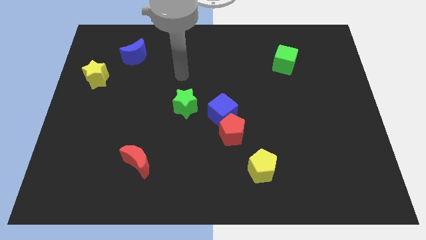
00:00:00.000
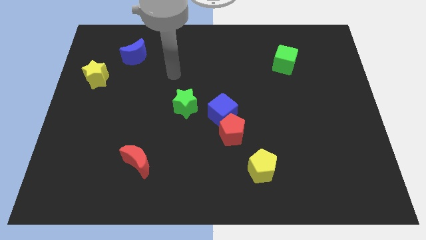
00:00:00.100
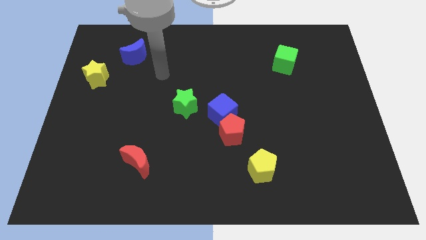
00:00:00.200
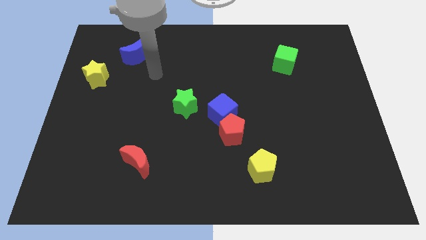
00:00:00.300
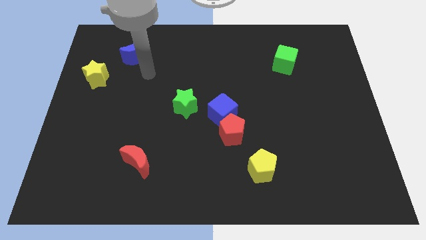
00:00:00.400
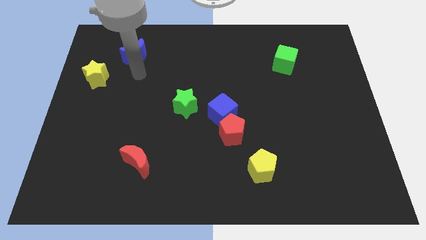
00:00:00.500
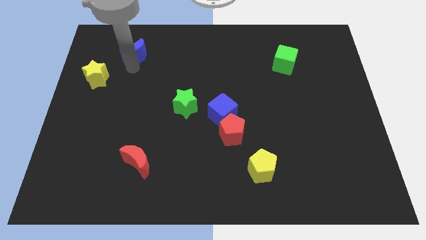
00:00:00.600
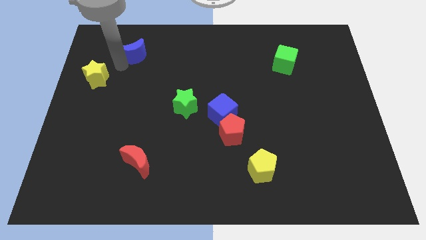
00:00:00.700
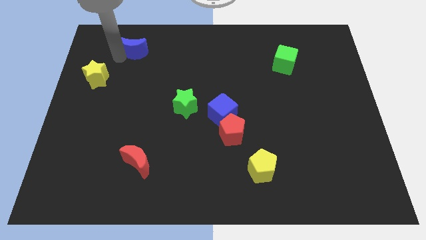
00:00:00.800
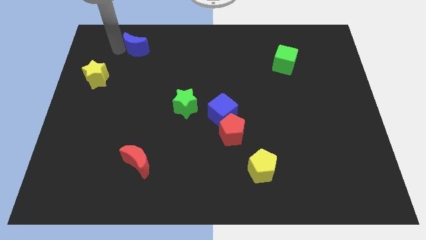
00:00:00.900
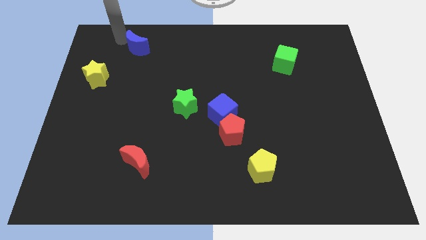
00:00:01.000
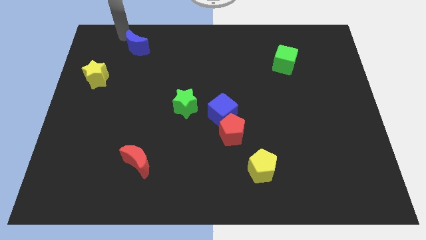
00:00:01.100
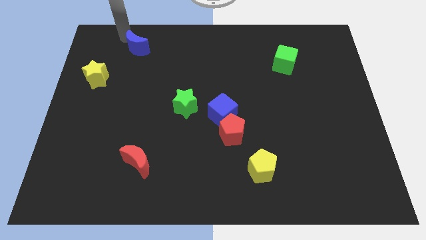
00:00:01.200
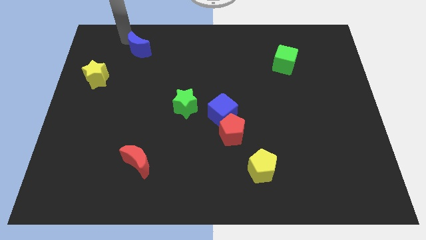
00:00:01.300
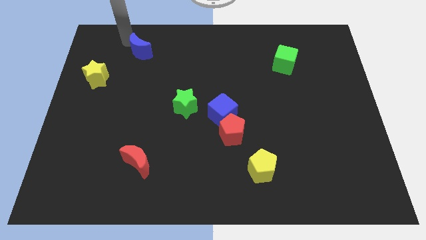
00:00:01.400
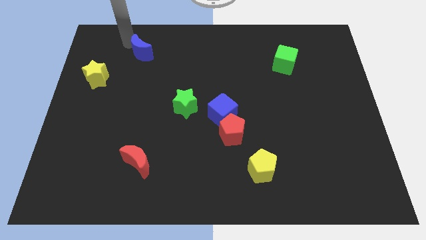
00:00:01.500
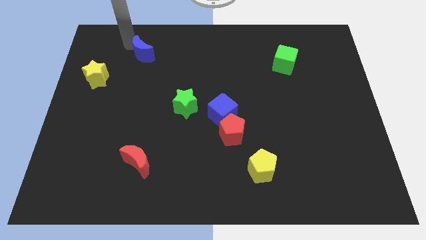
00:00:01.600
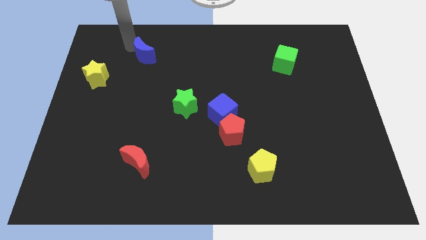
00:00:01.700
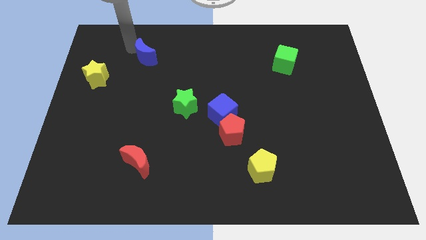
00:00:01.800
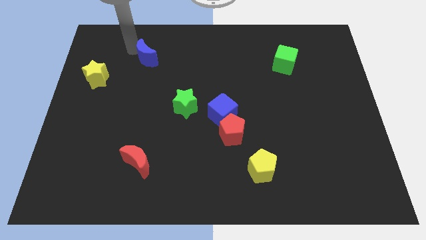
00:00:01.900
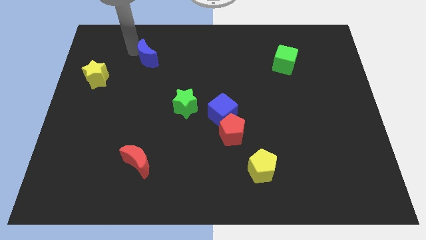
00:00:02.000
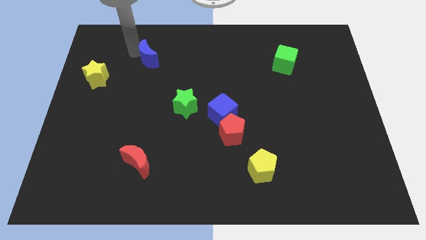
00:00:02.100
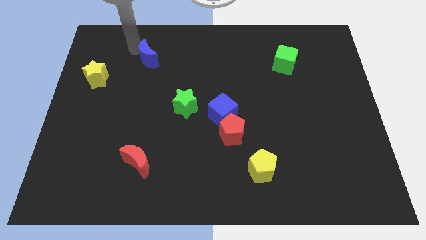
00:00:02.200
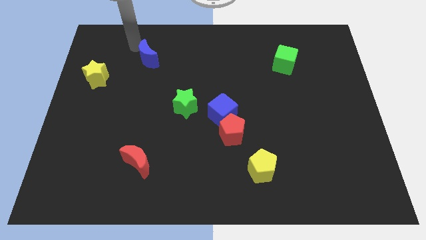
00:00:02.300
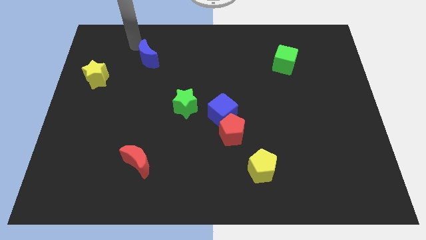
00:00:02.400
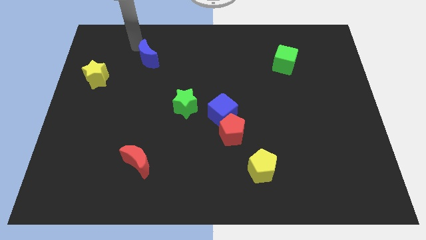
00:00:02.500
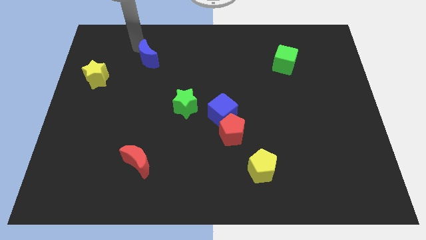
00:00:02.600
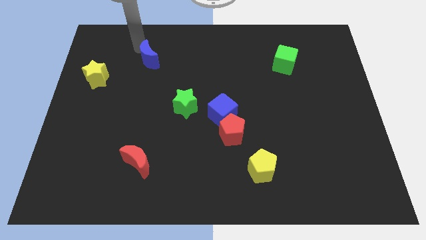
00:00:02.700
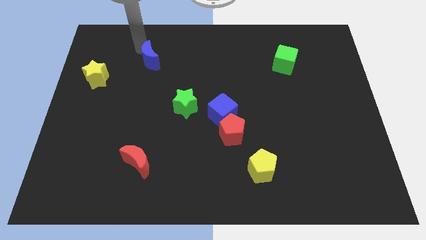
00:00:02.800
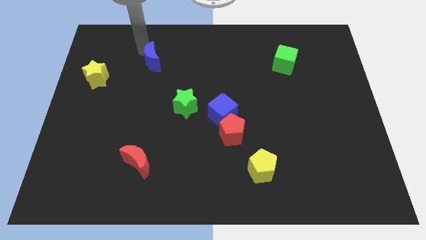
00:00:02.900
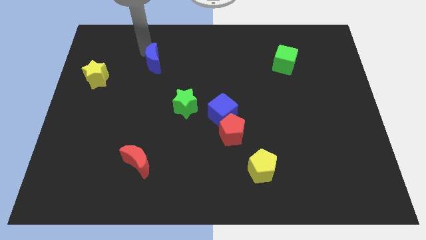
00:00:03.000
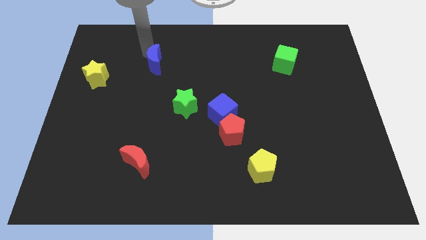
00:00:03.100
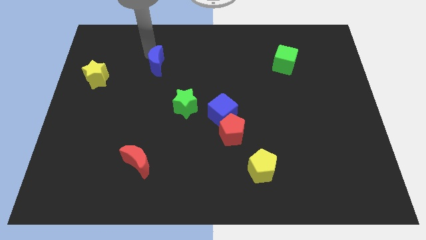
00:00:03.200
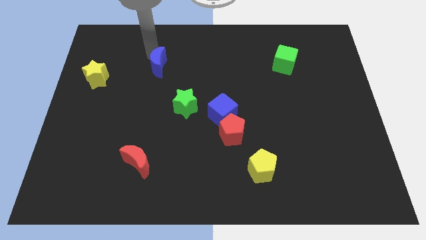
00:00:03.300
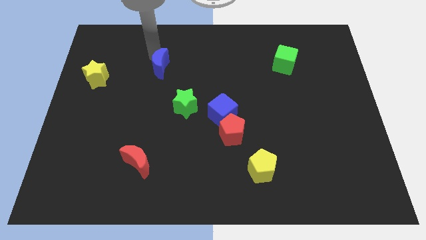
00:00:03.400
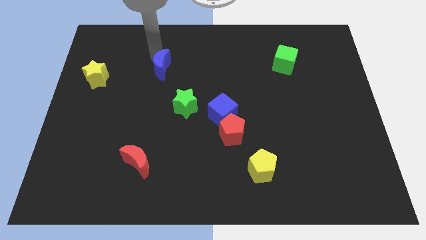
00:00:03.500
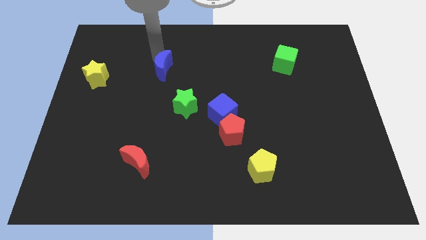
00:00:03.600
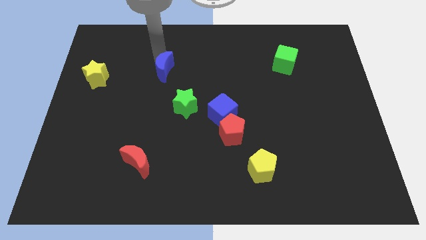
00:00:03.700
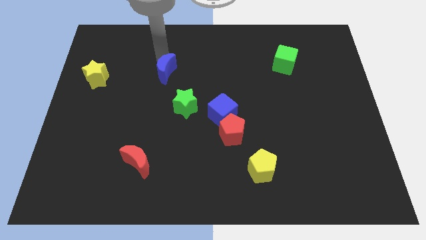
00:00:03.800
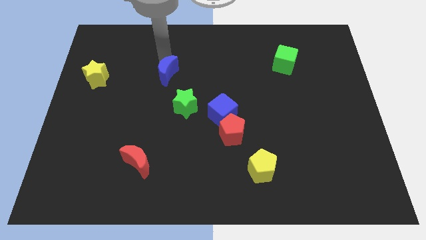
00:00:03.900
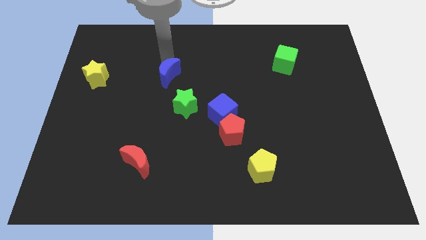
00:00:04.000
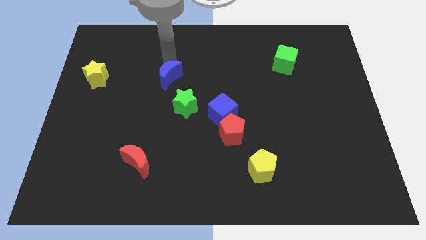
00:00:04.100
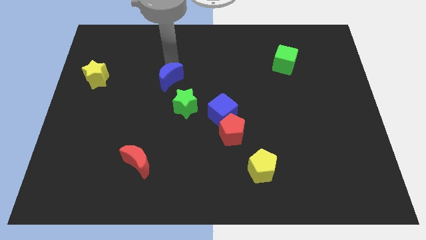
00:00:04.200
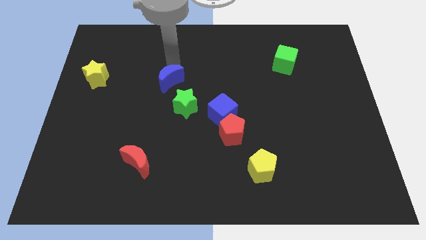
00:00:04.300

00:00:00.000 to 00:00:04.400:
put the blue moon to the center of the board

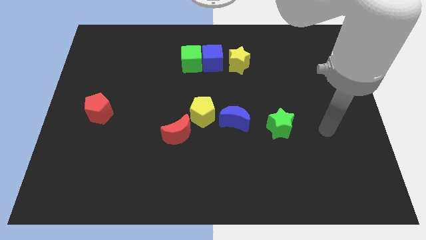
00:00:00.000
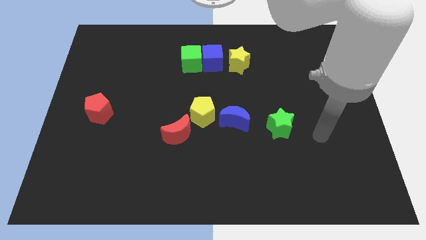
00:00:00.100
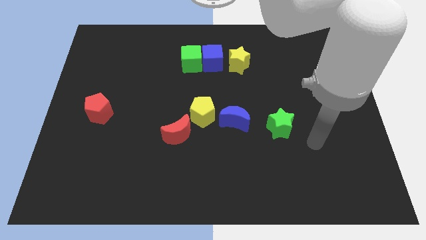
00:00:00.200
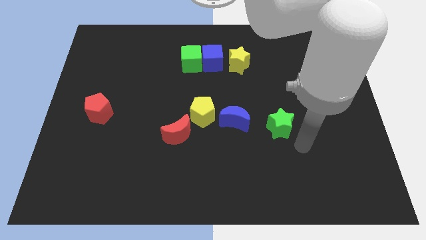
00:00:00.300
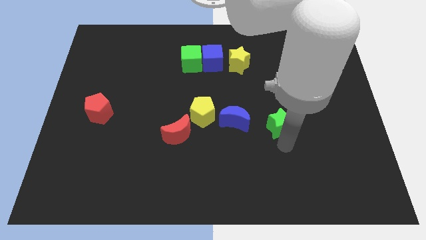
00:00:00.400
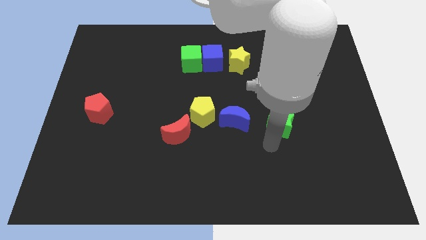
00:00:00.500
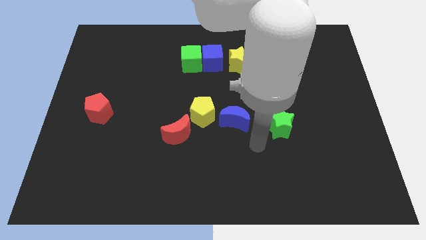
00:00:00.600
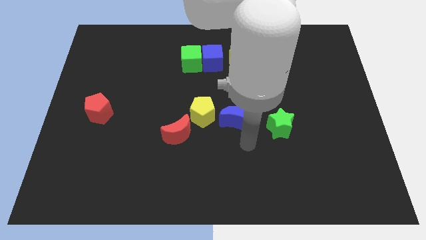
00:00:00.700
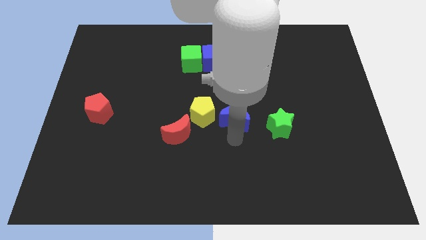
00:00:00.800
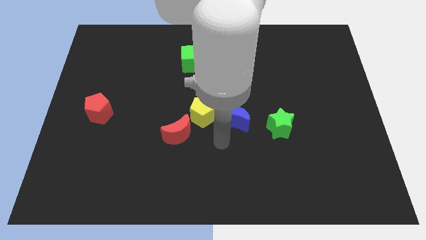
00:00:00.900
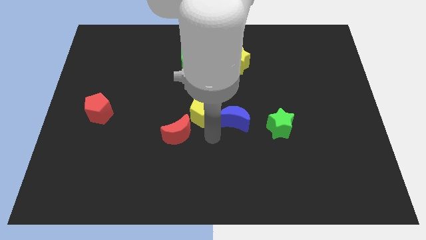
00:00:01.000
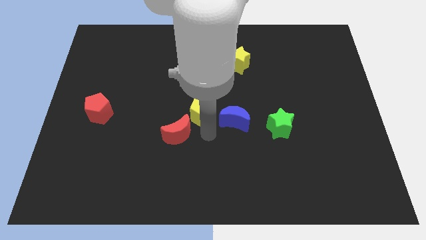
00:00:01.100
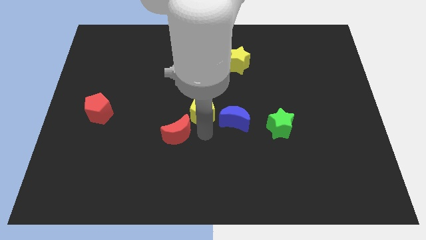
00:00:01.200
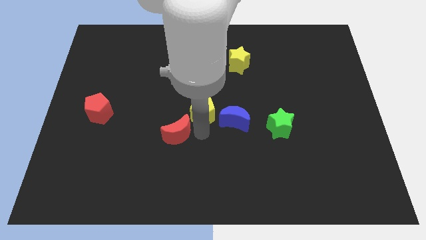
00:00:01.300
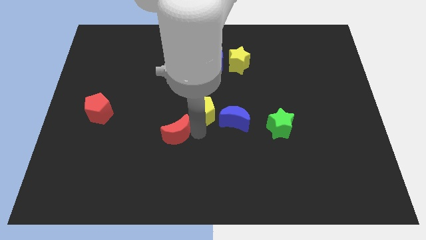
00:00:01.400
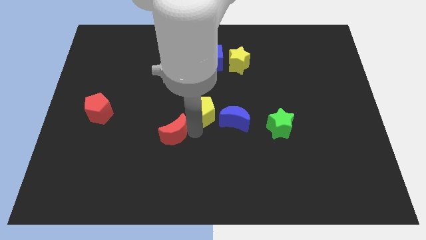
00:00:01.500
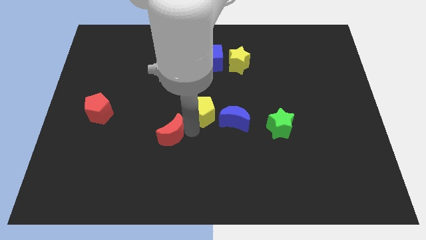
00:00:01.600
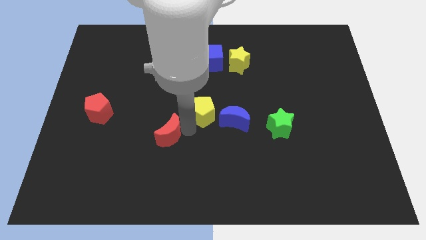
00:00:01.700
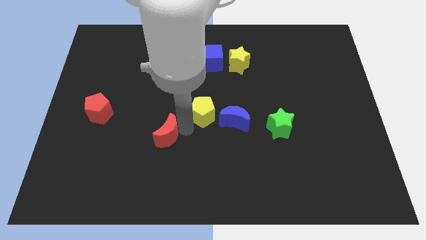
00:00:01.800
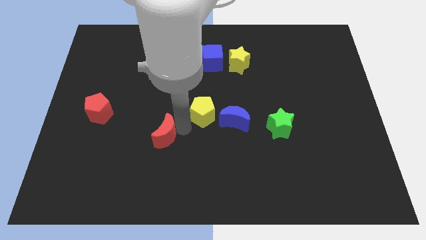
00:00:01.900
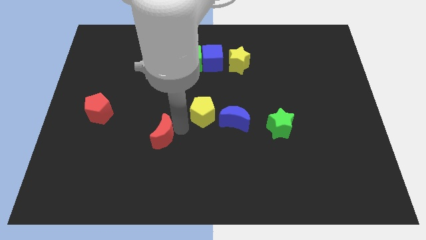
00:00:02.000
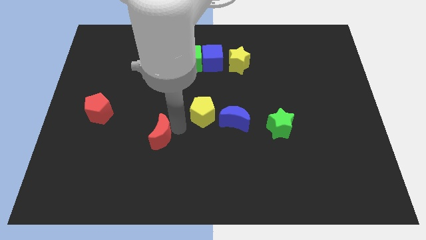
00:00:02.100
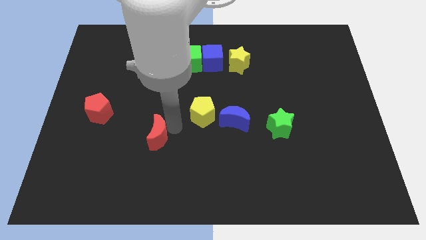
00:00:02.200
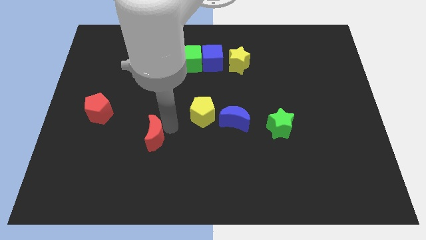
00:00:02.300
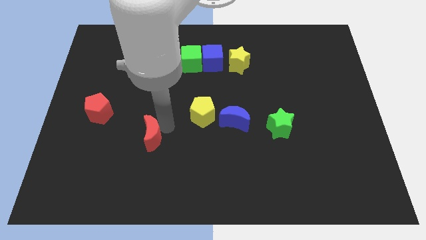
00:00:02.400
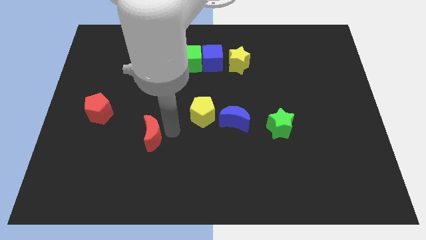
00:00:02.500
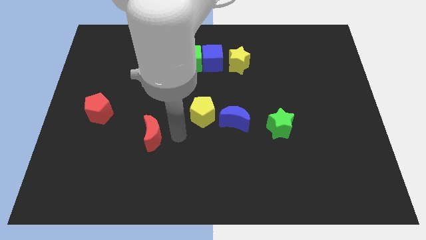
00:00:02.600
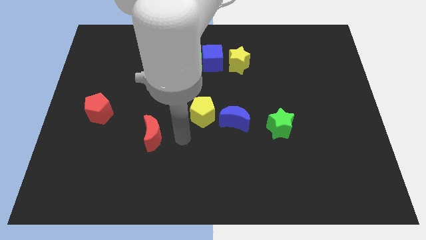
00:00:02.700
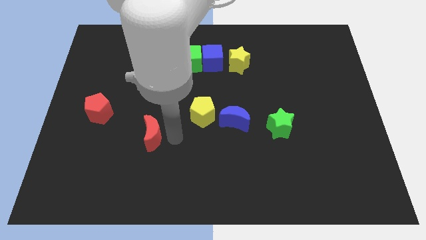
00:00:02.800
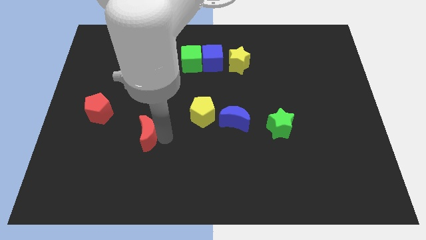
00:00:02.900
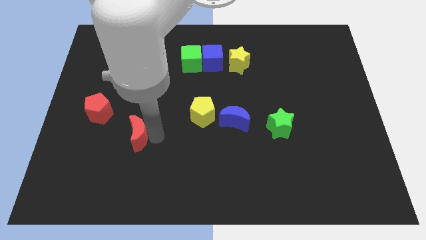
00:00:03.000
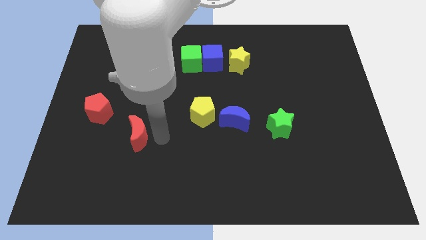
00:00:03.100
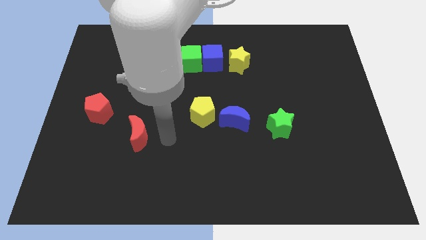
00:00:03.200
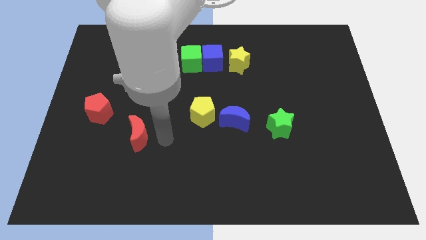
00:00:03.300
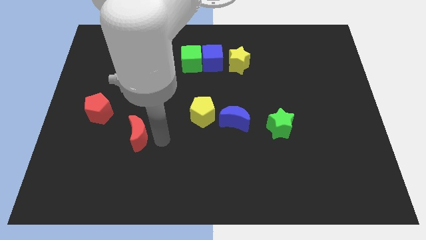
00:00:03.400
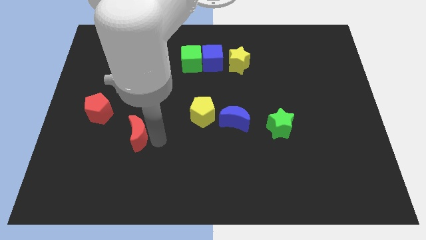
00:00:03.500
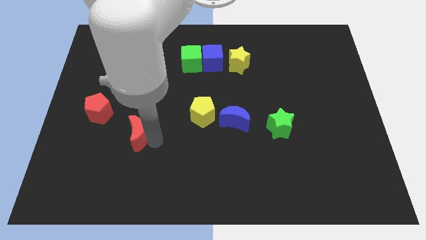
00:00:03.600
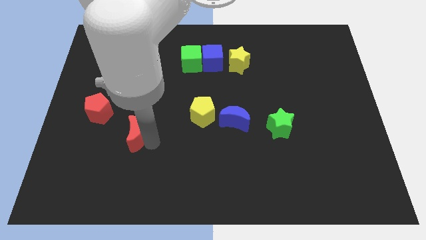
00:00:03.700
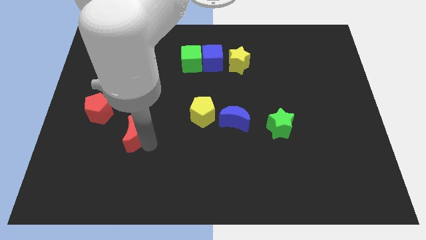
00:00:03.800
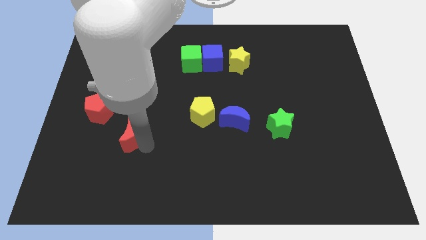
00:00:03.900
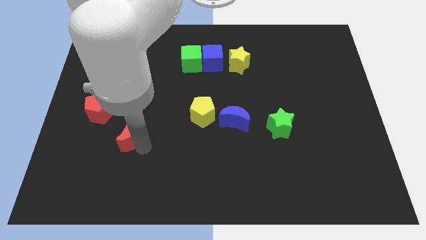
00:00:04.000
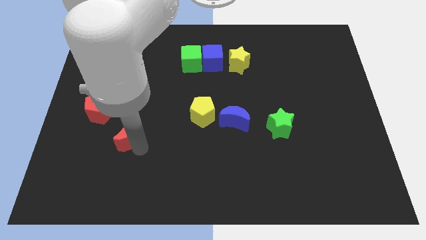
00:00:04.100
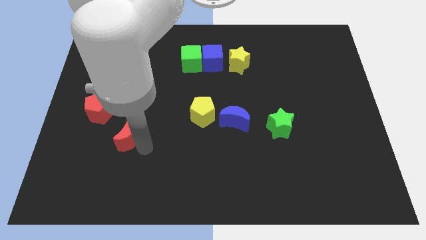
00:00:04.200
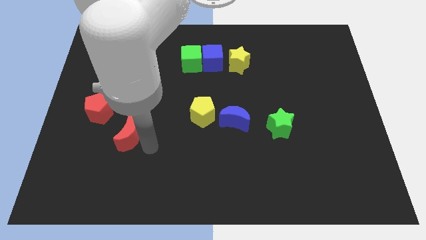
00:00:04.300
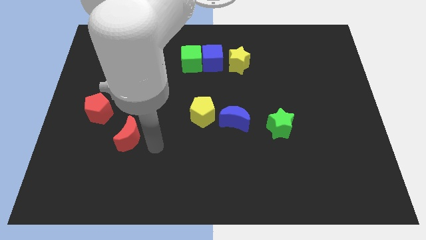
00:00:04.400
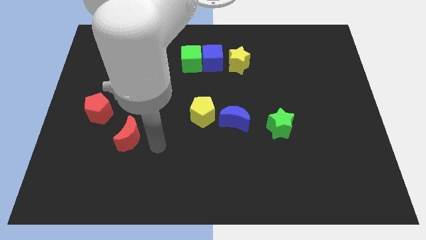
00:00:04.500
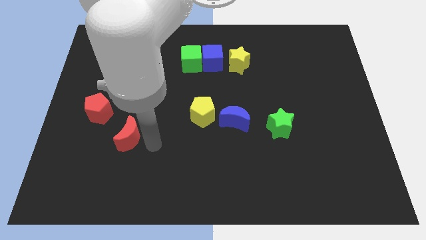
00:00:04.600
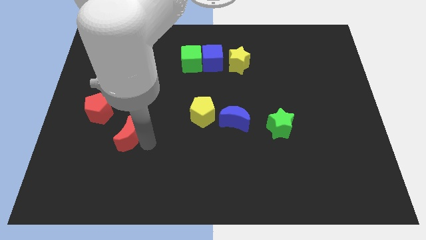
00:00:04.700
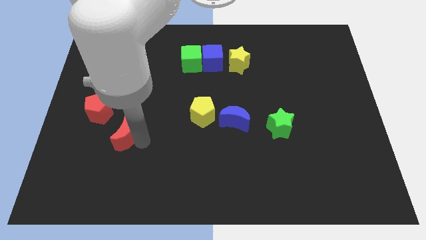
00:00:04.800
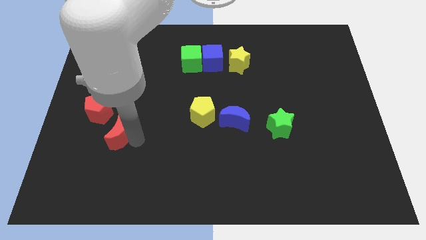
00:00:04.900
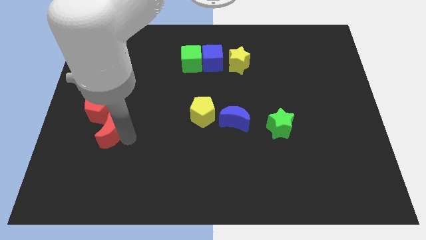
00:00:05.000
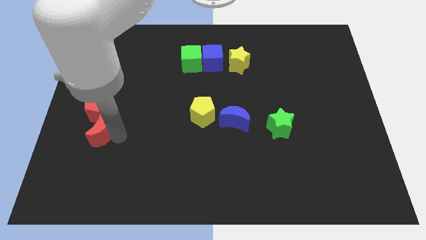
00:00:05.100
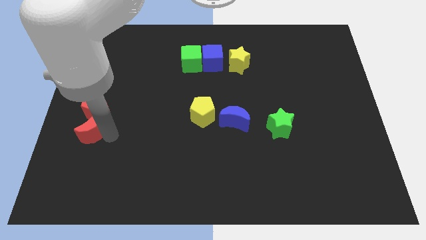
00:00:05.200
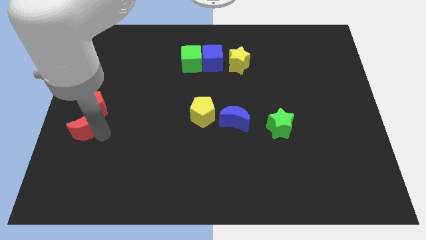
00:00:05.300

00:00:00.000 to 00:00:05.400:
move the red moon to the left side of the board
